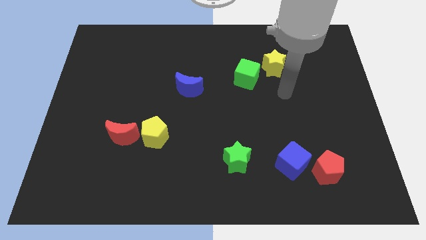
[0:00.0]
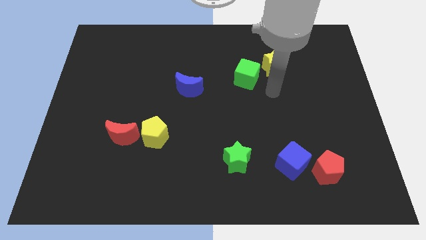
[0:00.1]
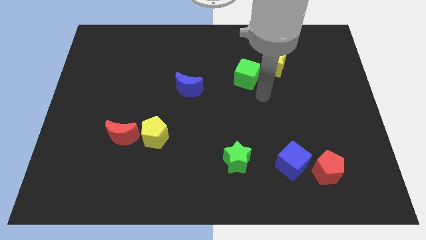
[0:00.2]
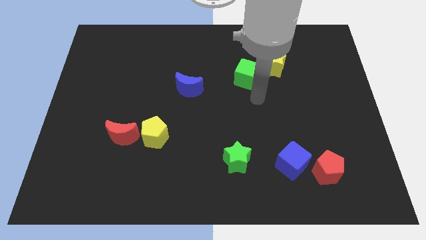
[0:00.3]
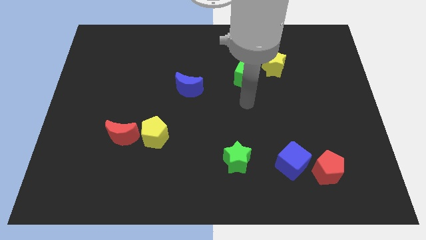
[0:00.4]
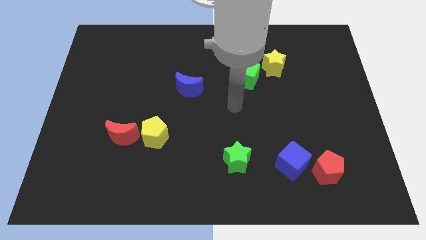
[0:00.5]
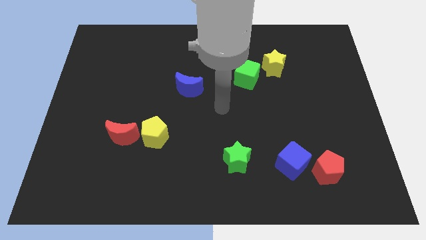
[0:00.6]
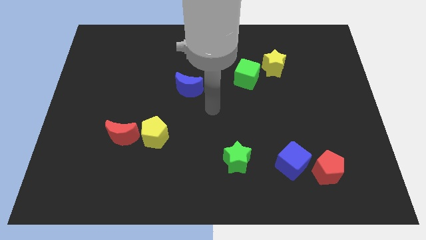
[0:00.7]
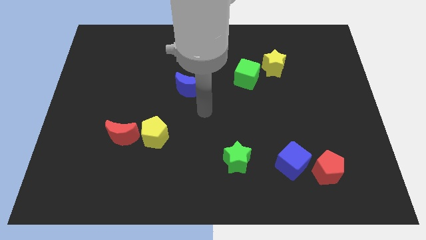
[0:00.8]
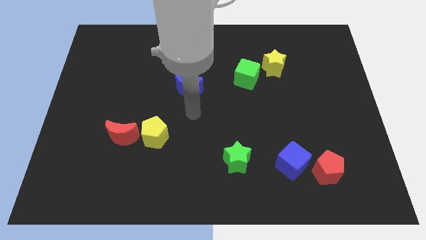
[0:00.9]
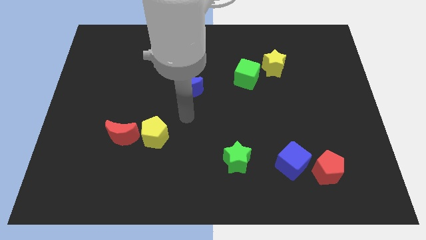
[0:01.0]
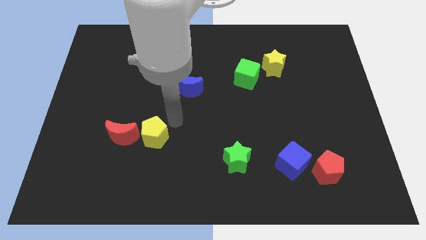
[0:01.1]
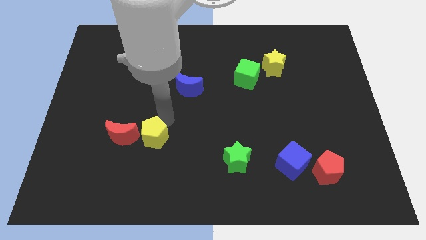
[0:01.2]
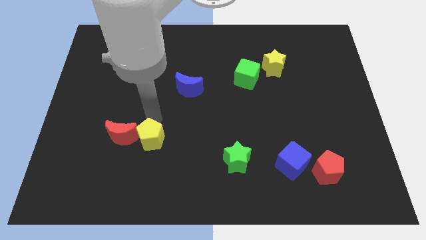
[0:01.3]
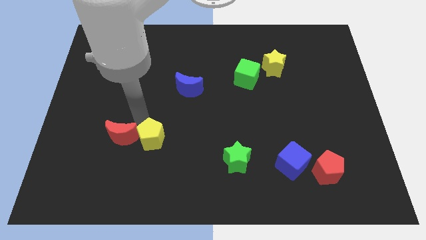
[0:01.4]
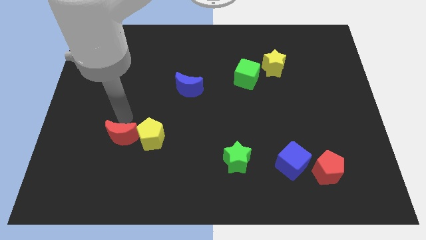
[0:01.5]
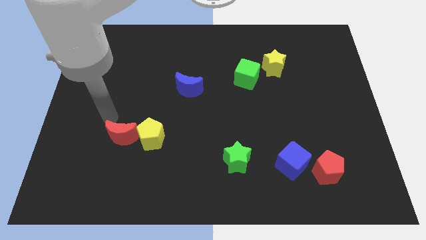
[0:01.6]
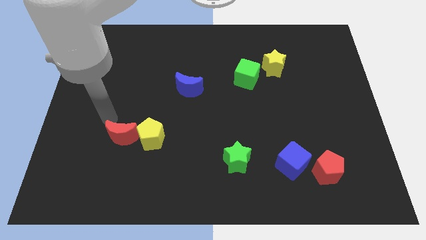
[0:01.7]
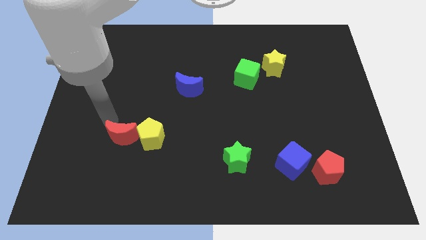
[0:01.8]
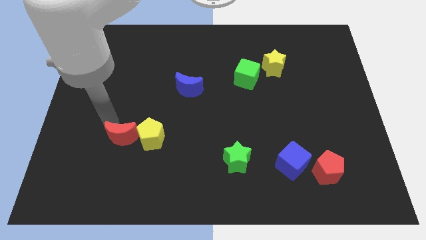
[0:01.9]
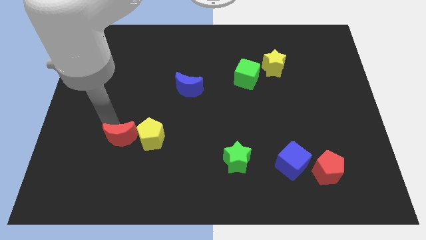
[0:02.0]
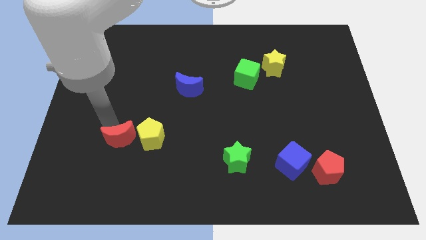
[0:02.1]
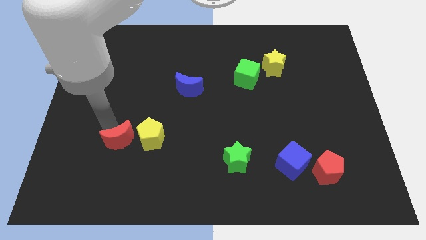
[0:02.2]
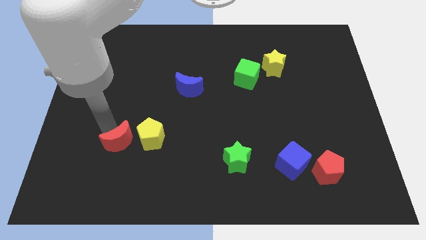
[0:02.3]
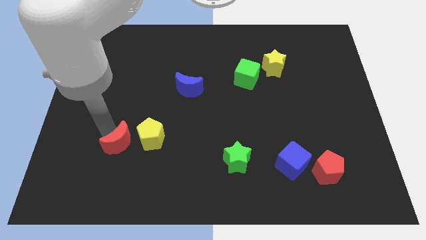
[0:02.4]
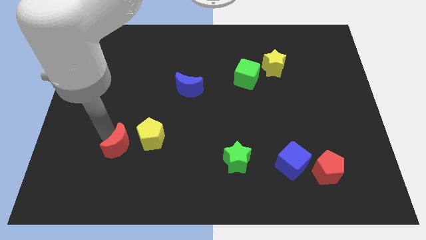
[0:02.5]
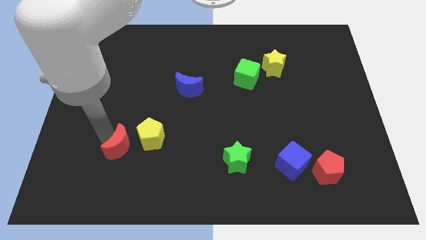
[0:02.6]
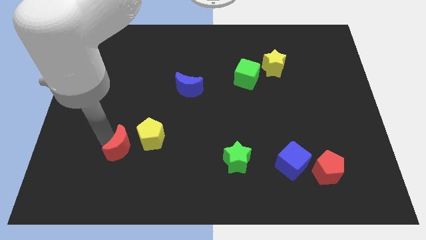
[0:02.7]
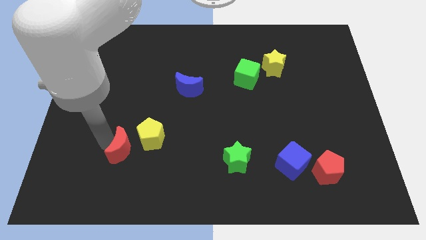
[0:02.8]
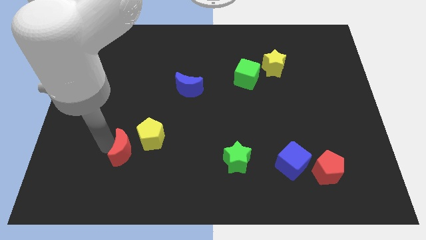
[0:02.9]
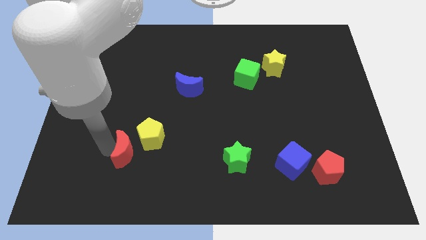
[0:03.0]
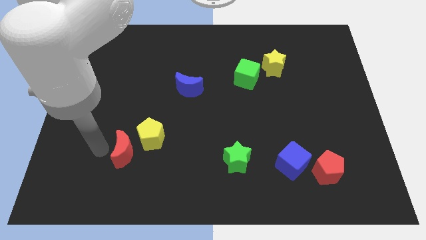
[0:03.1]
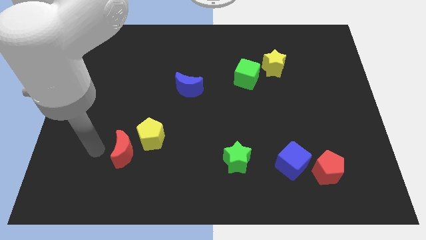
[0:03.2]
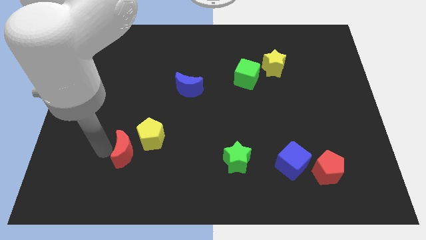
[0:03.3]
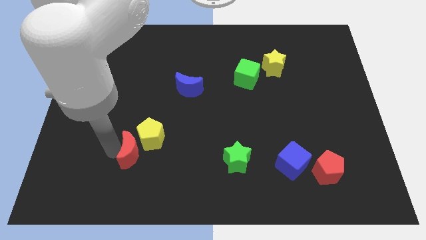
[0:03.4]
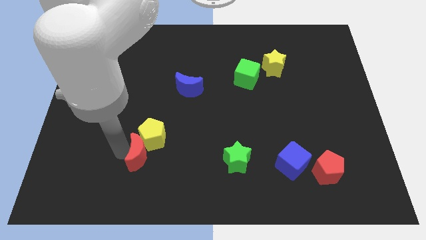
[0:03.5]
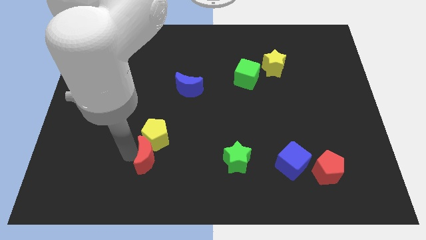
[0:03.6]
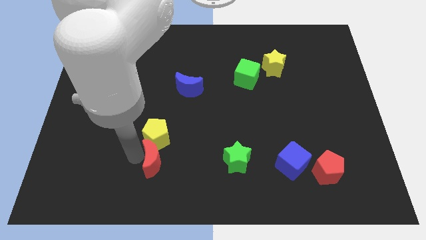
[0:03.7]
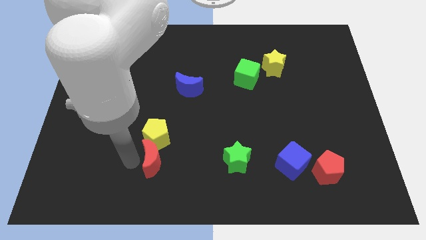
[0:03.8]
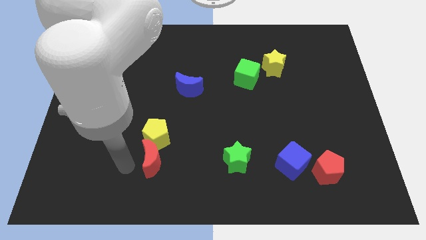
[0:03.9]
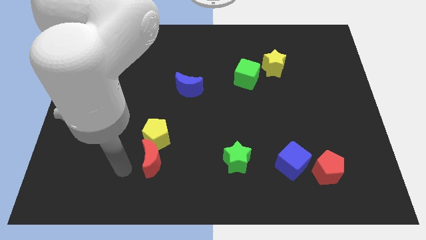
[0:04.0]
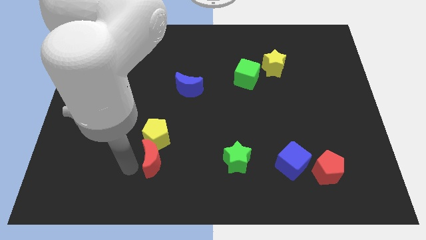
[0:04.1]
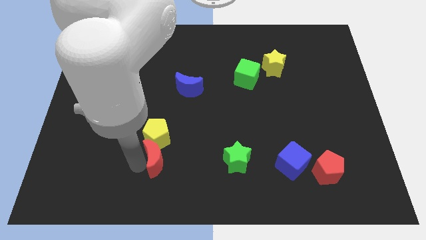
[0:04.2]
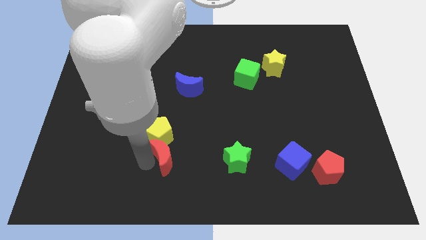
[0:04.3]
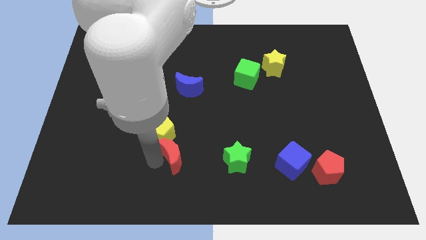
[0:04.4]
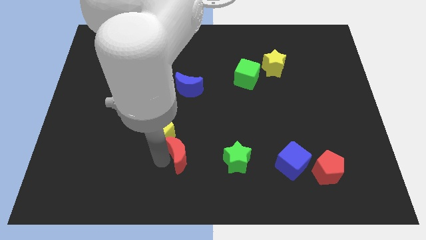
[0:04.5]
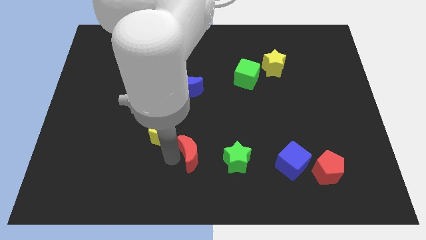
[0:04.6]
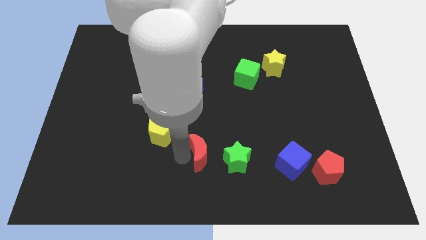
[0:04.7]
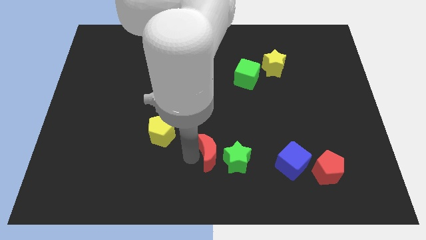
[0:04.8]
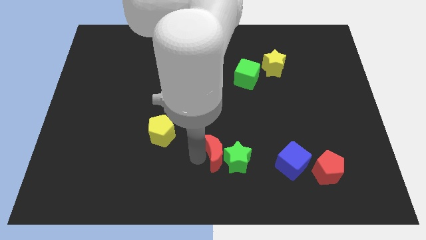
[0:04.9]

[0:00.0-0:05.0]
move the red moon right

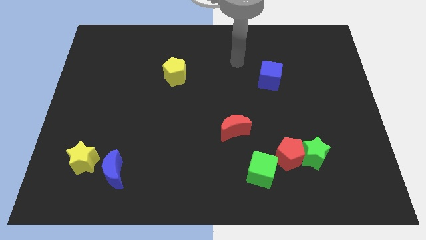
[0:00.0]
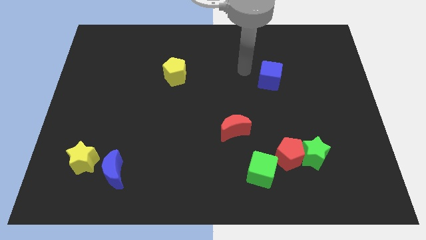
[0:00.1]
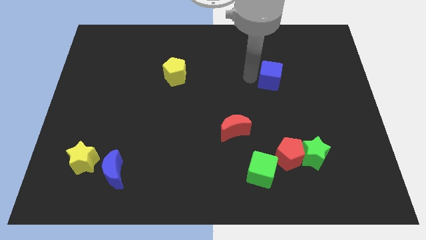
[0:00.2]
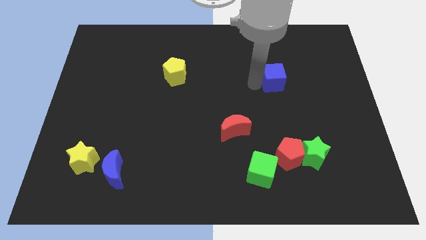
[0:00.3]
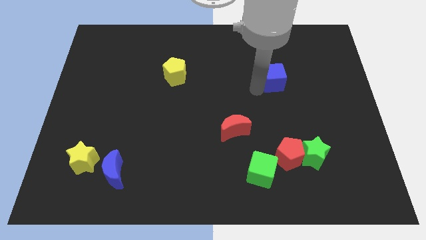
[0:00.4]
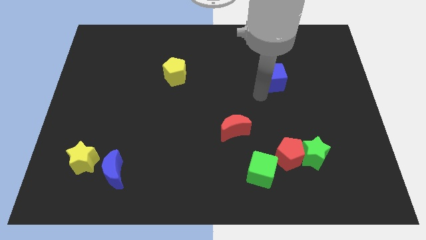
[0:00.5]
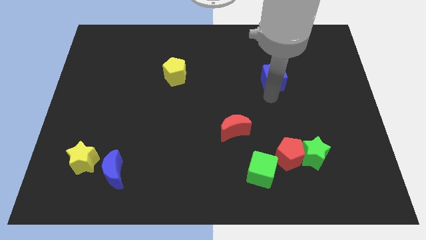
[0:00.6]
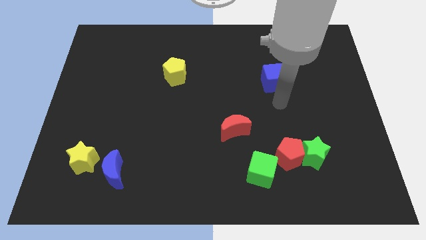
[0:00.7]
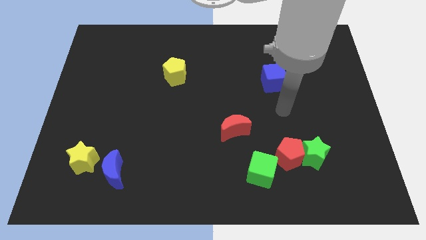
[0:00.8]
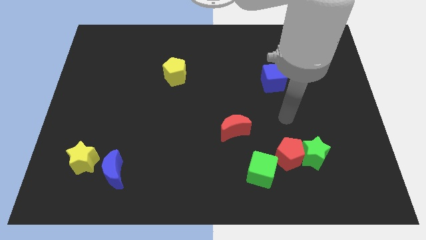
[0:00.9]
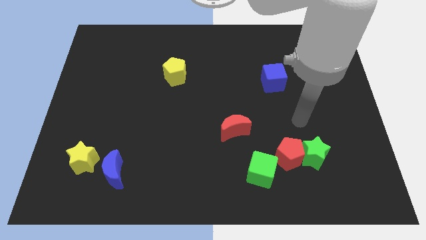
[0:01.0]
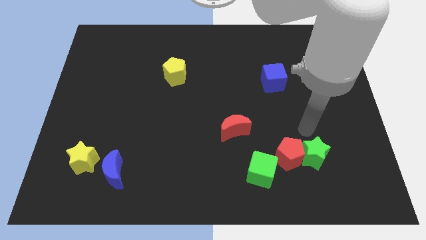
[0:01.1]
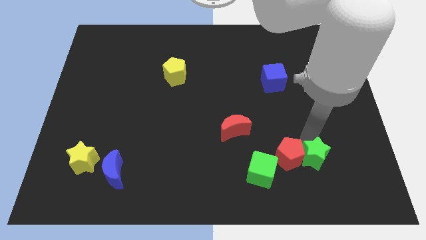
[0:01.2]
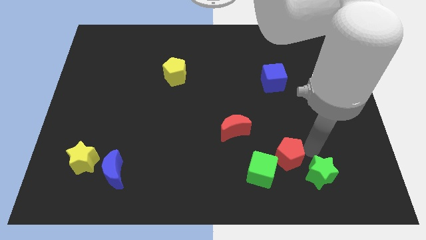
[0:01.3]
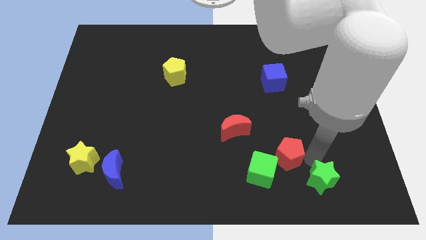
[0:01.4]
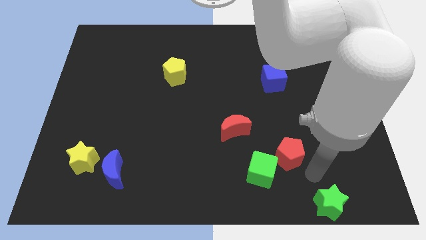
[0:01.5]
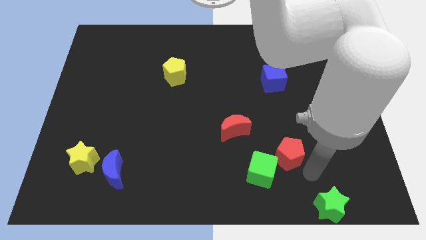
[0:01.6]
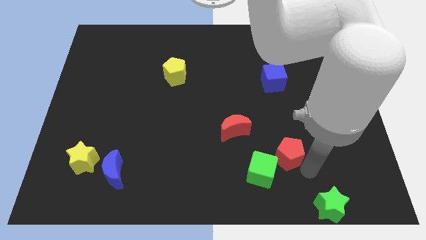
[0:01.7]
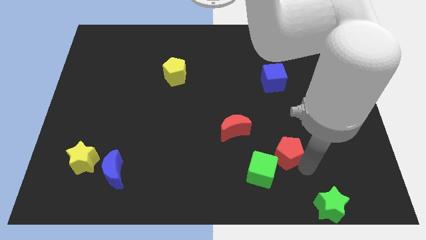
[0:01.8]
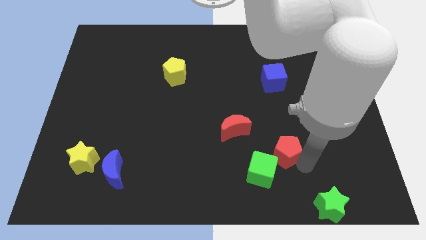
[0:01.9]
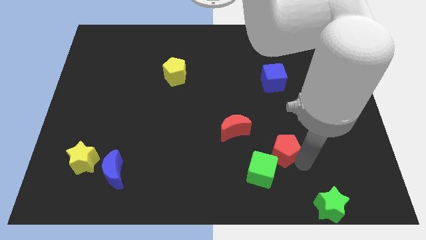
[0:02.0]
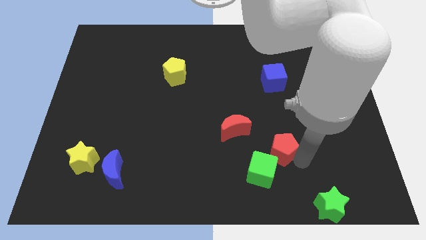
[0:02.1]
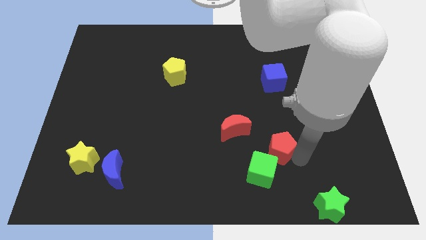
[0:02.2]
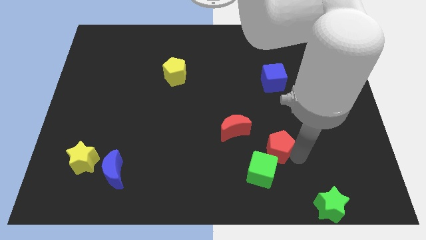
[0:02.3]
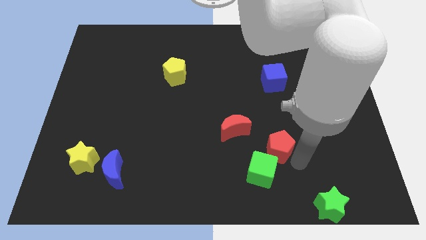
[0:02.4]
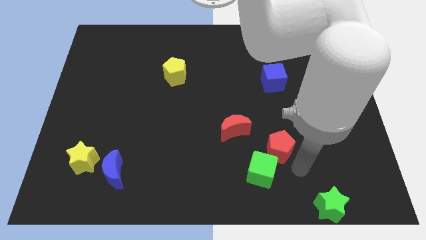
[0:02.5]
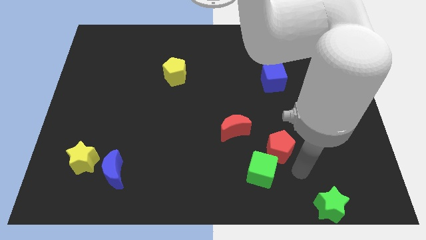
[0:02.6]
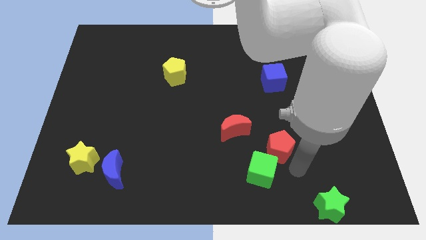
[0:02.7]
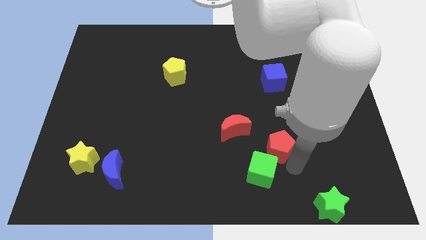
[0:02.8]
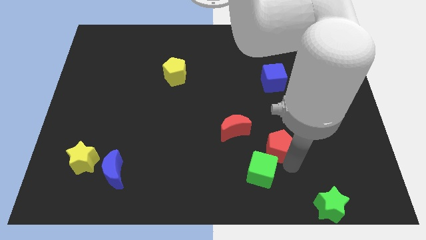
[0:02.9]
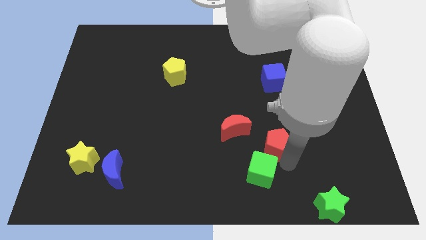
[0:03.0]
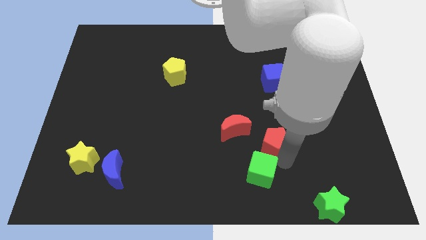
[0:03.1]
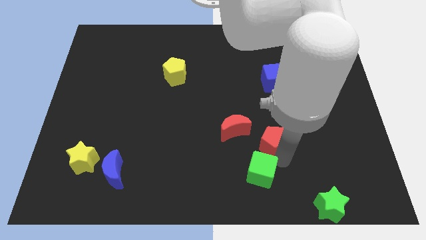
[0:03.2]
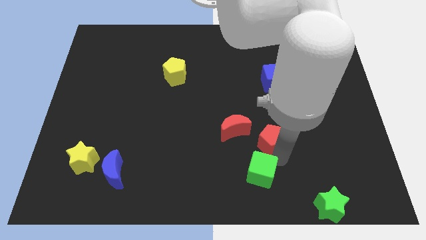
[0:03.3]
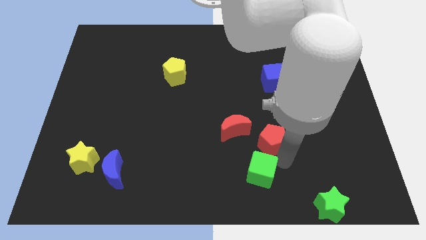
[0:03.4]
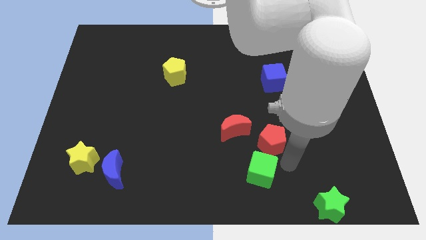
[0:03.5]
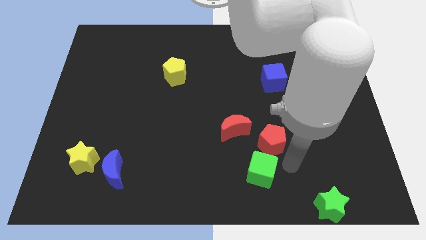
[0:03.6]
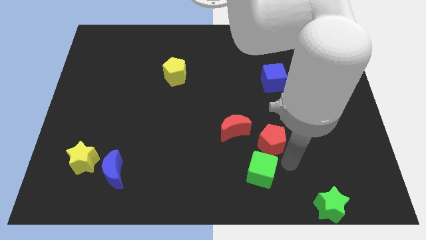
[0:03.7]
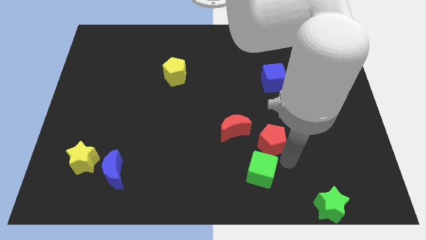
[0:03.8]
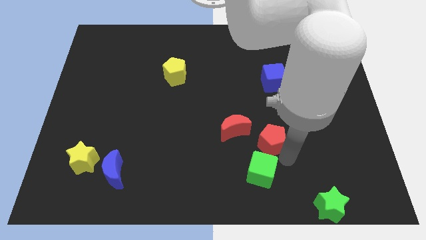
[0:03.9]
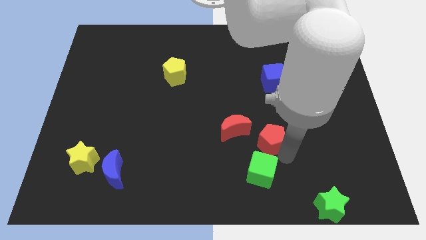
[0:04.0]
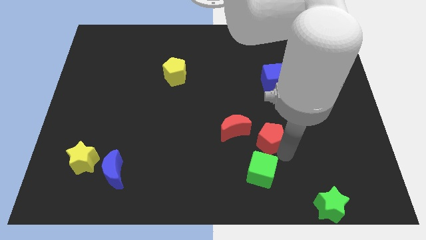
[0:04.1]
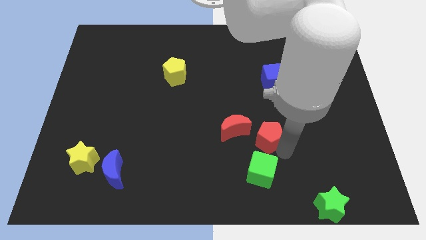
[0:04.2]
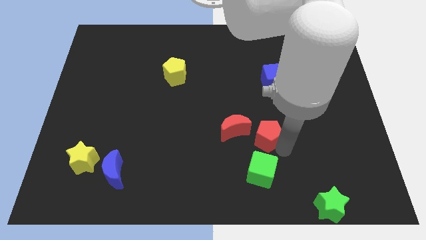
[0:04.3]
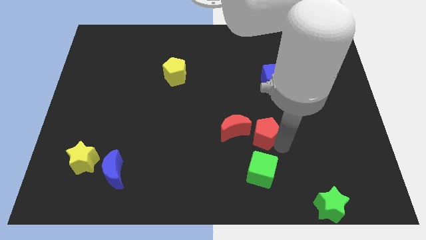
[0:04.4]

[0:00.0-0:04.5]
move the red pentagon a bit up and left diagonally
